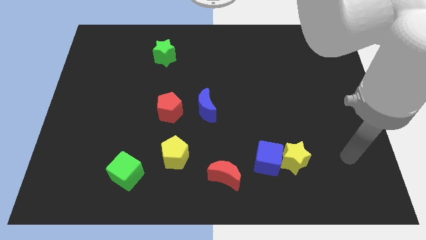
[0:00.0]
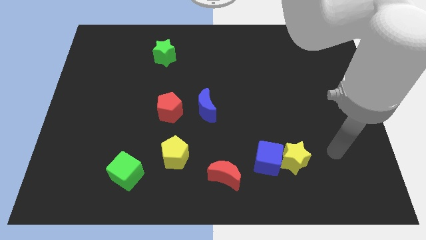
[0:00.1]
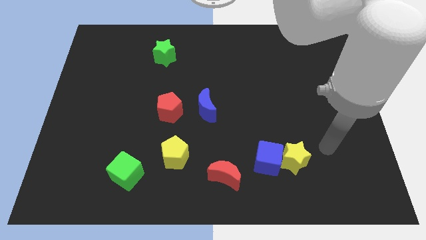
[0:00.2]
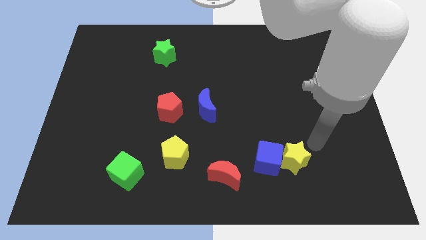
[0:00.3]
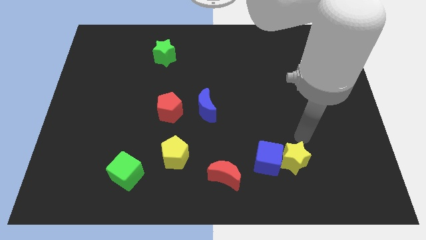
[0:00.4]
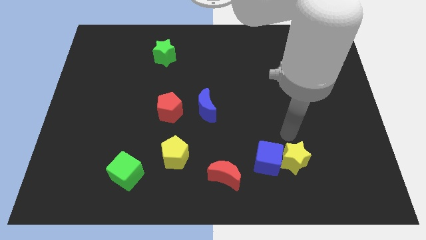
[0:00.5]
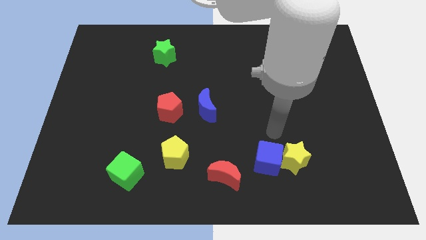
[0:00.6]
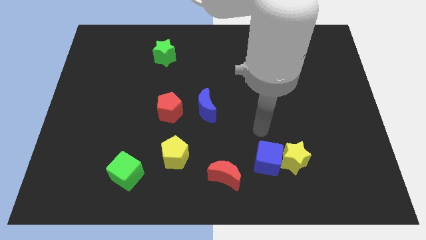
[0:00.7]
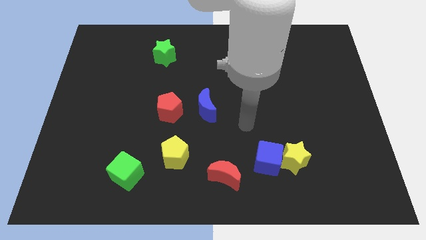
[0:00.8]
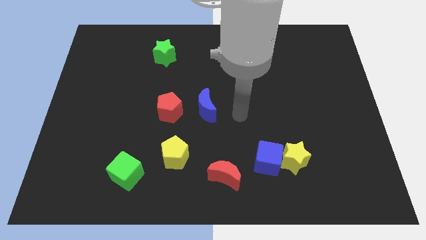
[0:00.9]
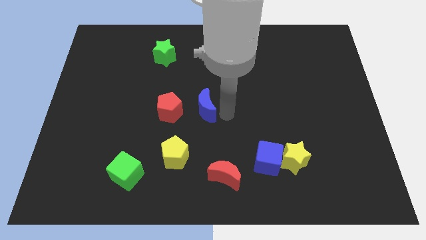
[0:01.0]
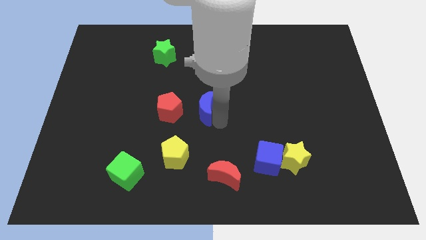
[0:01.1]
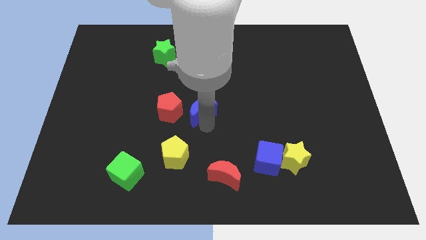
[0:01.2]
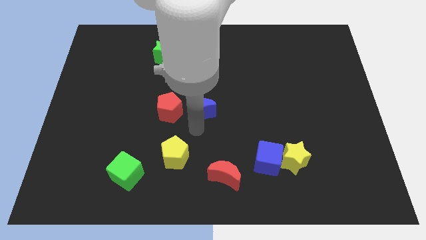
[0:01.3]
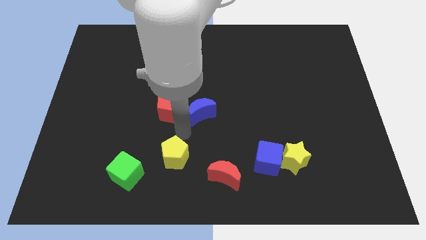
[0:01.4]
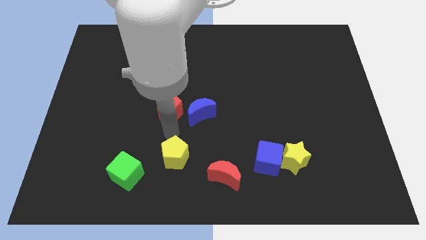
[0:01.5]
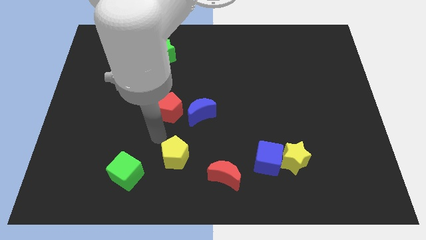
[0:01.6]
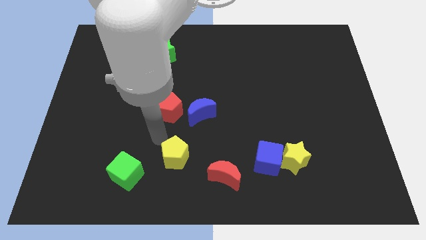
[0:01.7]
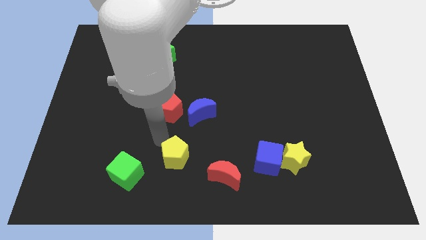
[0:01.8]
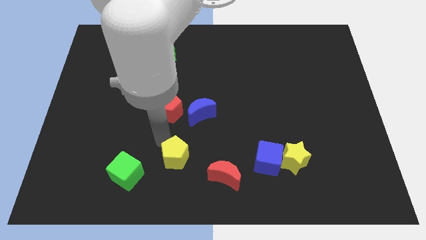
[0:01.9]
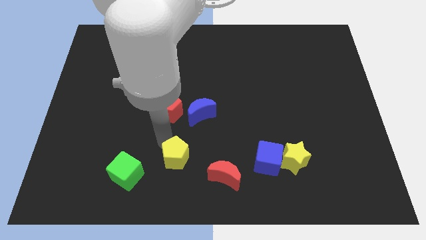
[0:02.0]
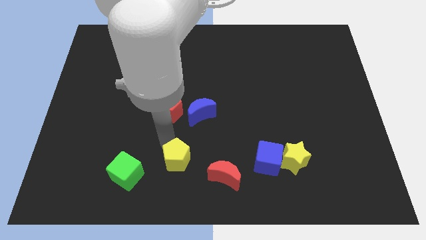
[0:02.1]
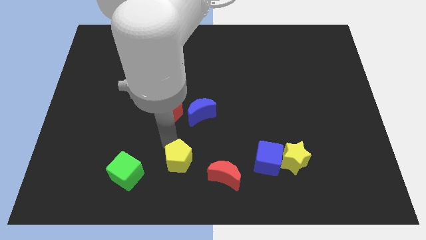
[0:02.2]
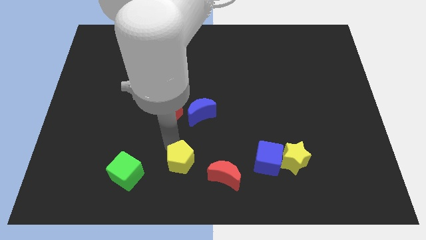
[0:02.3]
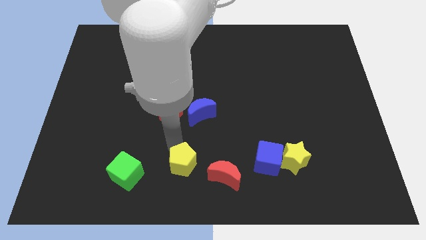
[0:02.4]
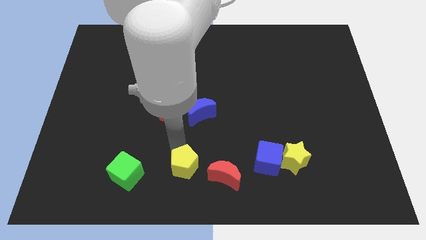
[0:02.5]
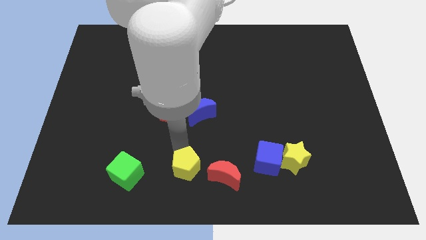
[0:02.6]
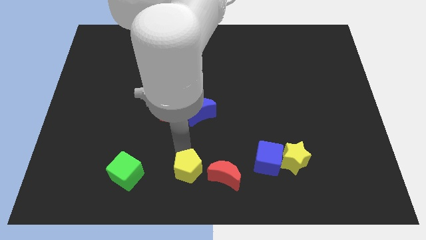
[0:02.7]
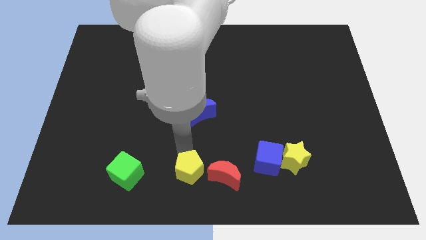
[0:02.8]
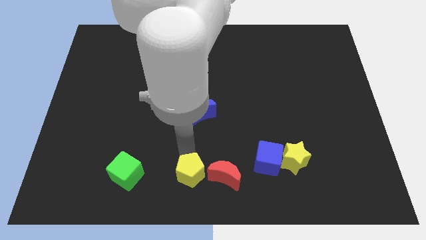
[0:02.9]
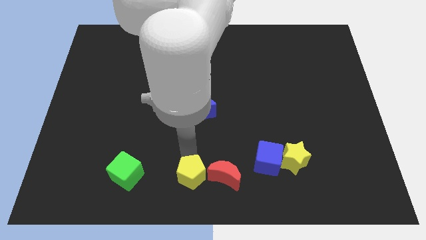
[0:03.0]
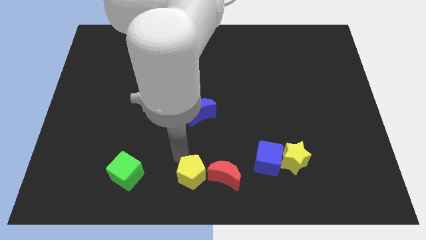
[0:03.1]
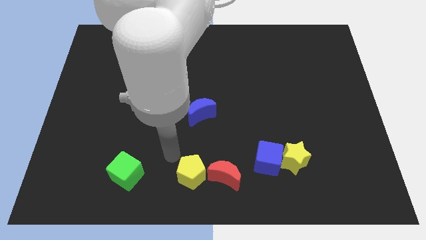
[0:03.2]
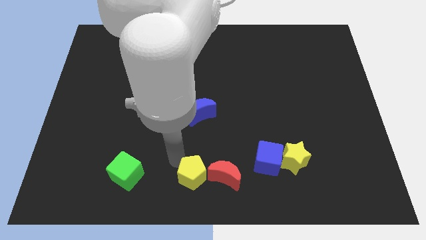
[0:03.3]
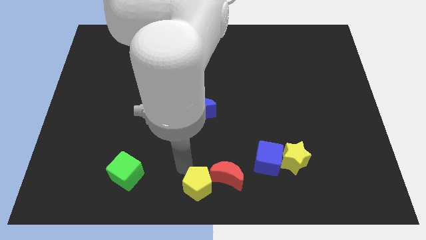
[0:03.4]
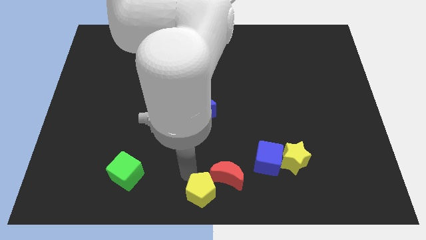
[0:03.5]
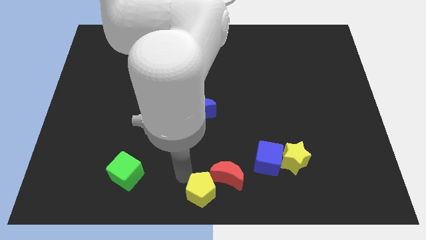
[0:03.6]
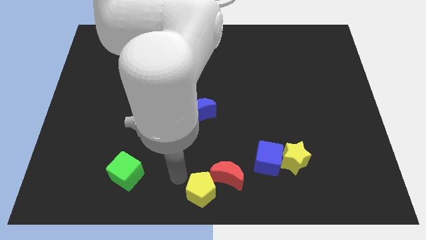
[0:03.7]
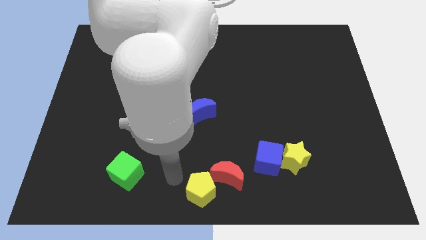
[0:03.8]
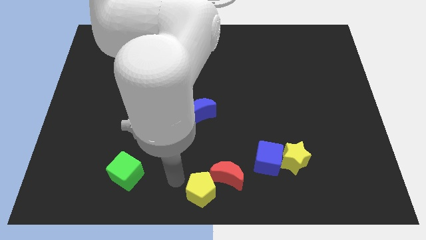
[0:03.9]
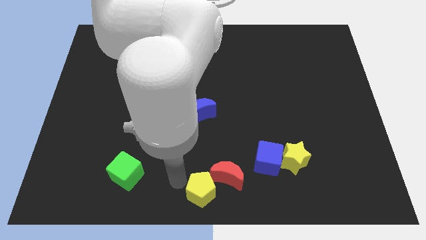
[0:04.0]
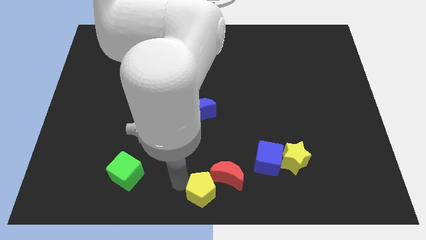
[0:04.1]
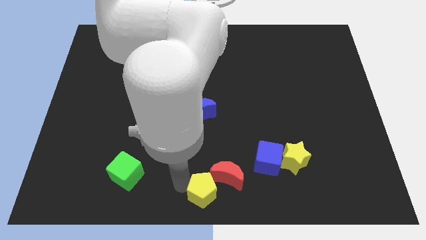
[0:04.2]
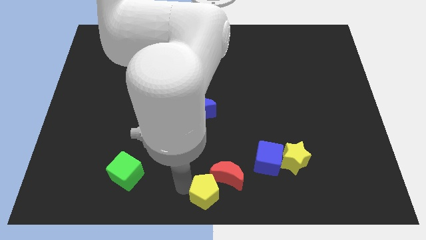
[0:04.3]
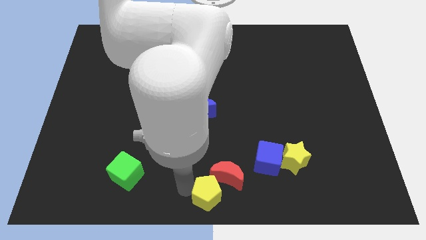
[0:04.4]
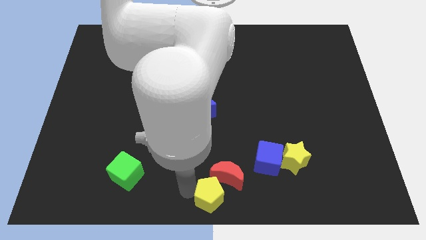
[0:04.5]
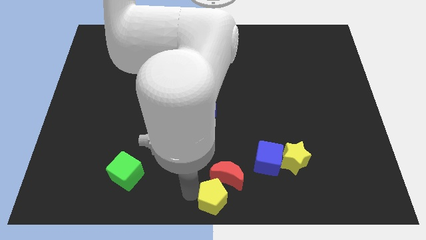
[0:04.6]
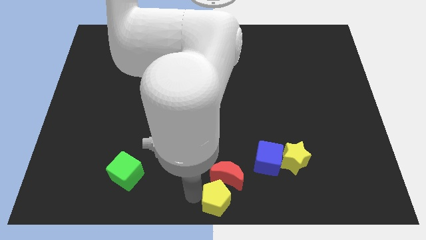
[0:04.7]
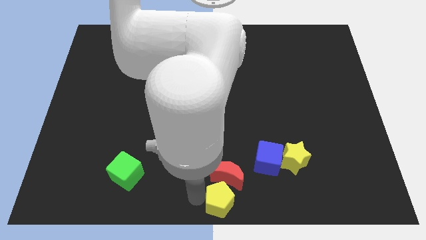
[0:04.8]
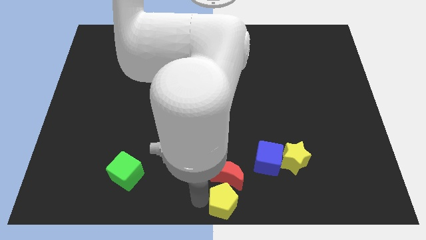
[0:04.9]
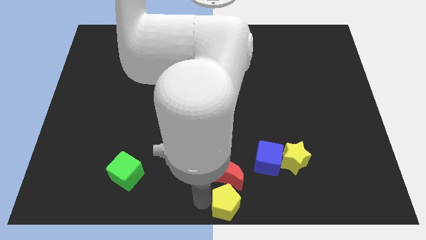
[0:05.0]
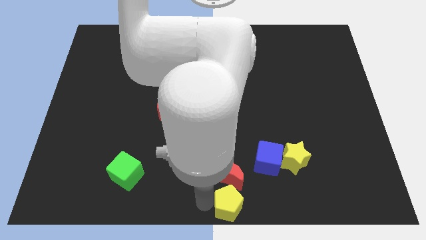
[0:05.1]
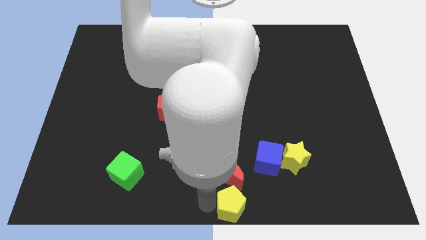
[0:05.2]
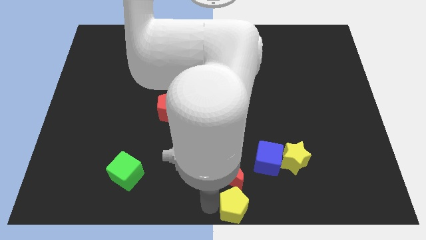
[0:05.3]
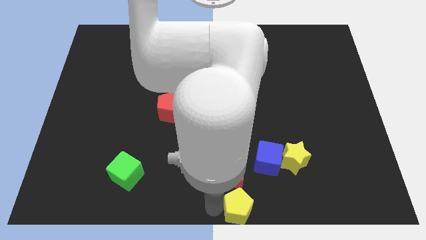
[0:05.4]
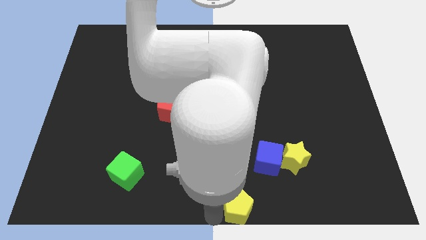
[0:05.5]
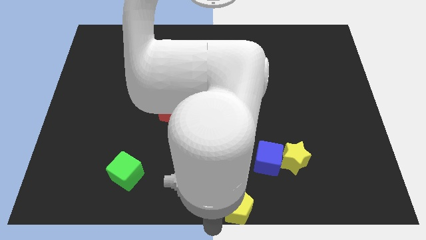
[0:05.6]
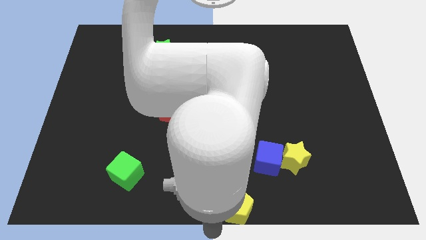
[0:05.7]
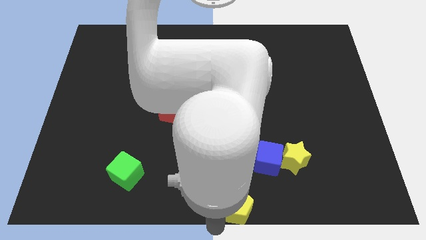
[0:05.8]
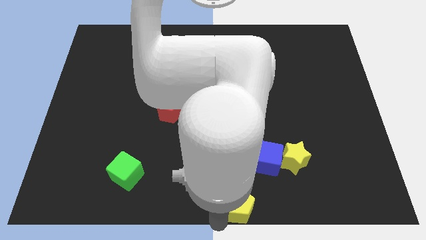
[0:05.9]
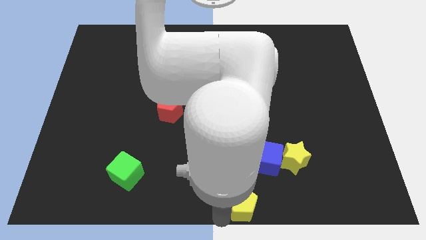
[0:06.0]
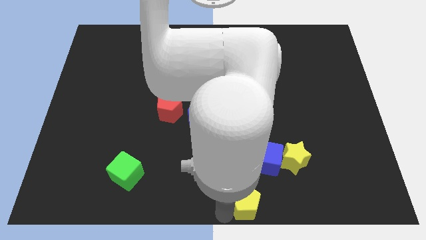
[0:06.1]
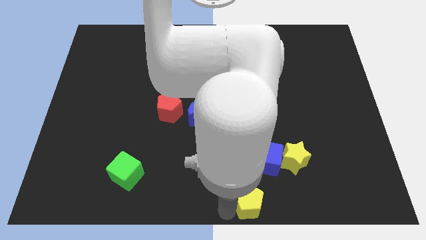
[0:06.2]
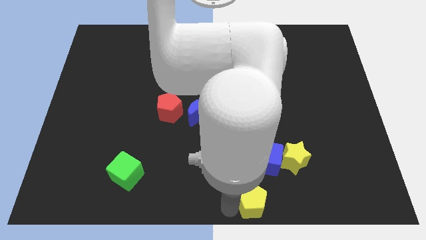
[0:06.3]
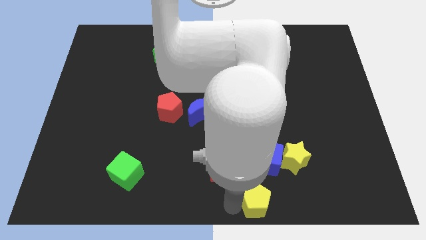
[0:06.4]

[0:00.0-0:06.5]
push the yellow pentagon diagonally down and to the left of the yellow star
